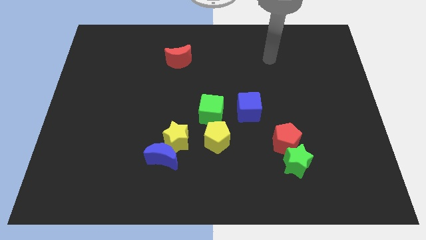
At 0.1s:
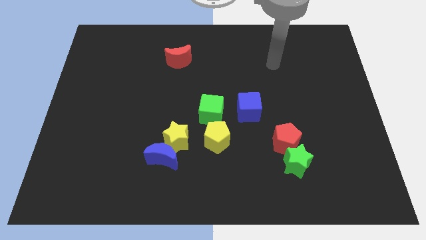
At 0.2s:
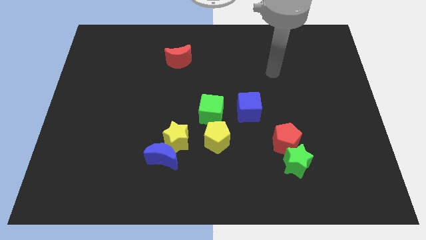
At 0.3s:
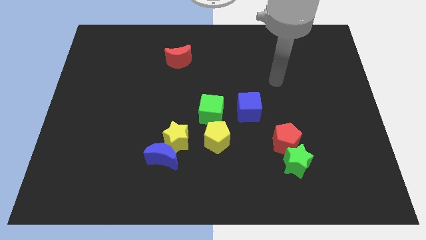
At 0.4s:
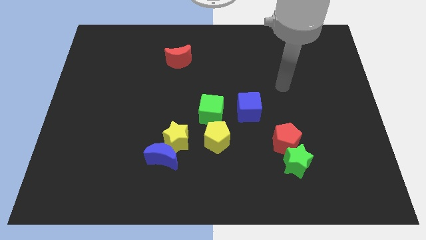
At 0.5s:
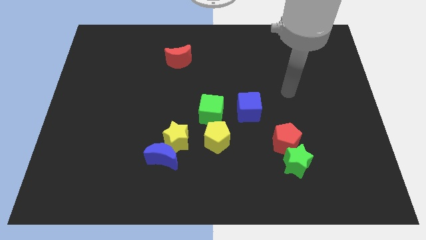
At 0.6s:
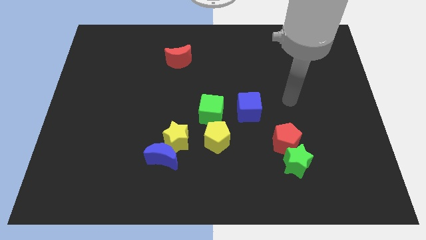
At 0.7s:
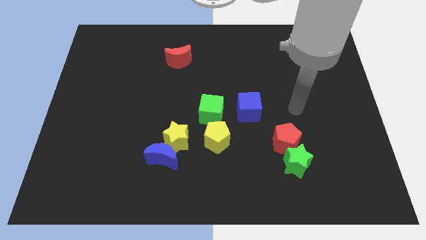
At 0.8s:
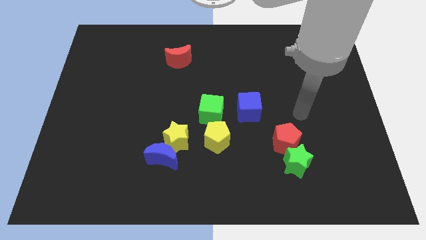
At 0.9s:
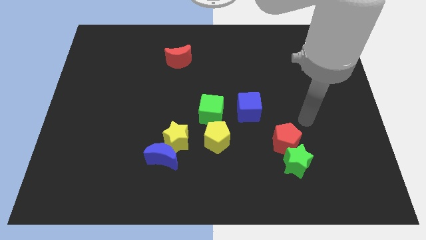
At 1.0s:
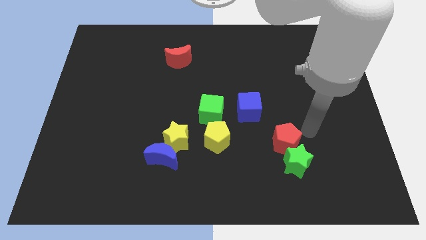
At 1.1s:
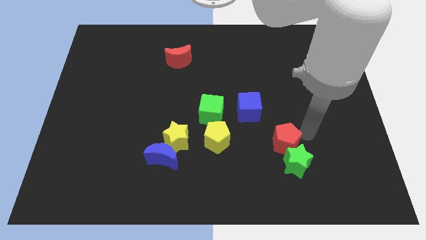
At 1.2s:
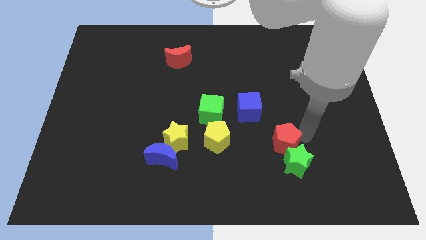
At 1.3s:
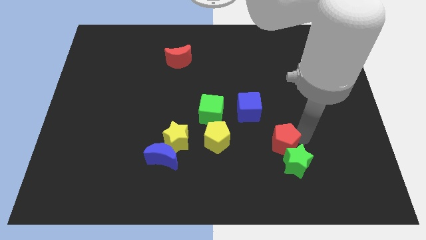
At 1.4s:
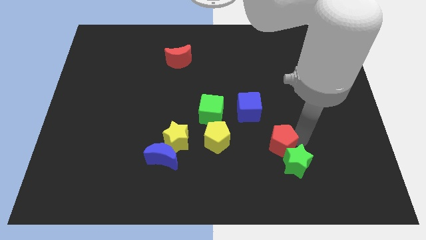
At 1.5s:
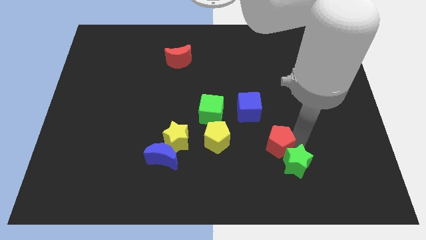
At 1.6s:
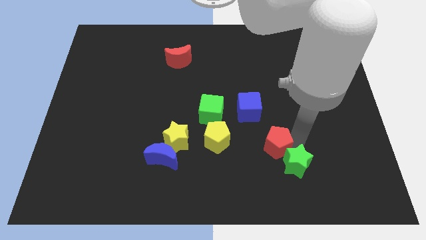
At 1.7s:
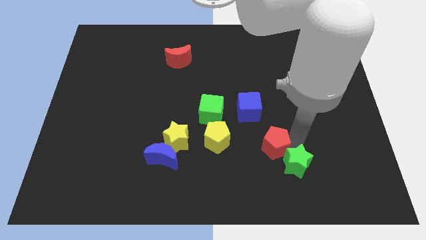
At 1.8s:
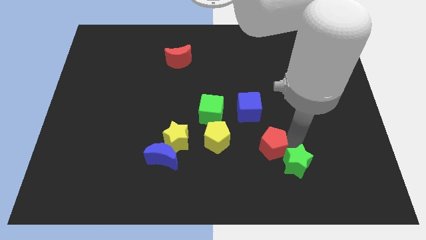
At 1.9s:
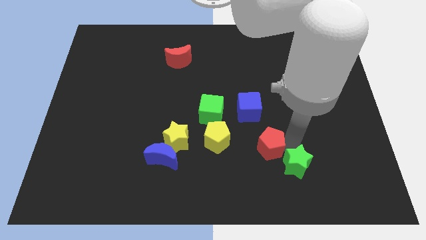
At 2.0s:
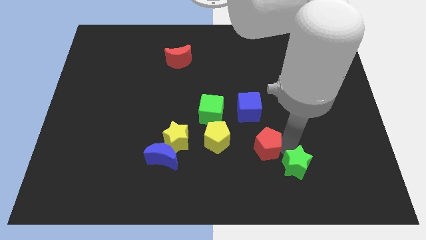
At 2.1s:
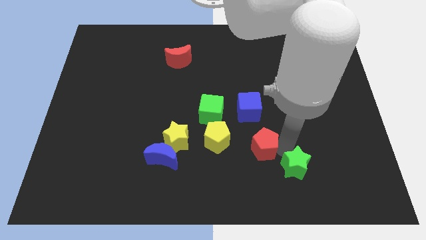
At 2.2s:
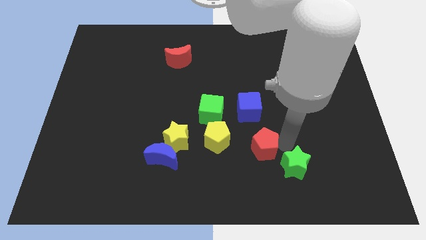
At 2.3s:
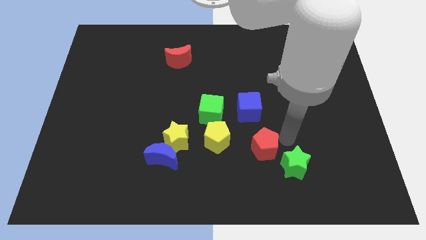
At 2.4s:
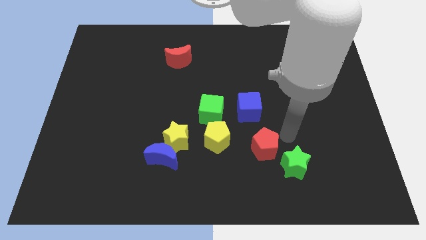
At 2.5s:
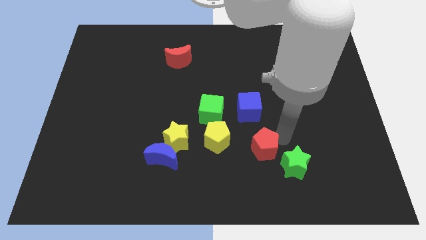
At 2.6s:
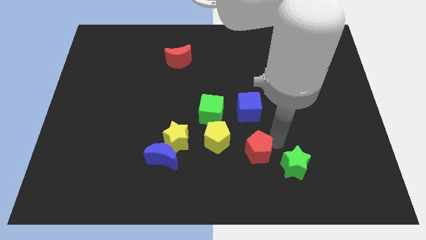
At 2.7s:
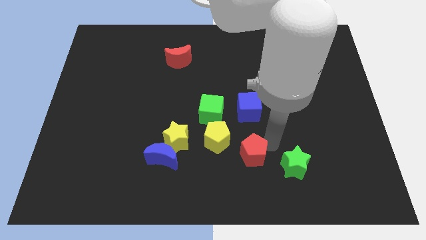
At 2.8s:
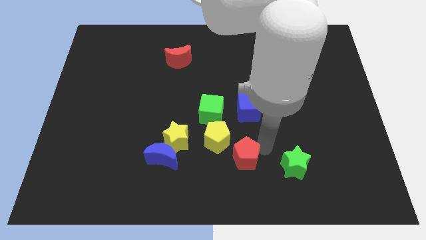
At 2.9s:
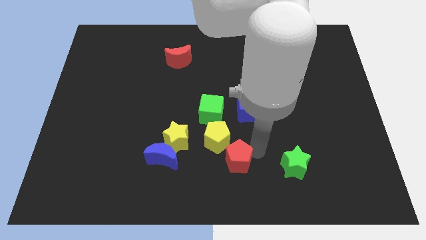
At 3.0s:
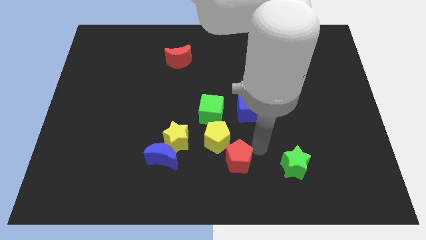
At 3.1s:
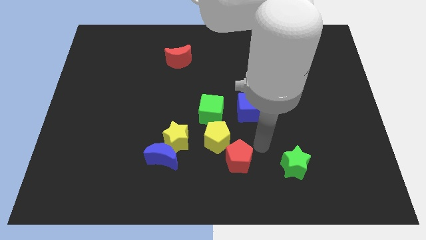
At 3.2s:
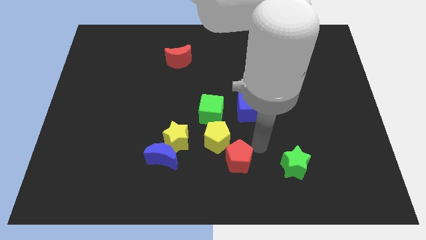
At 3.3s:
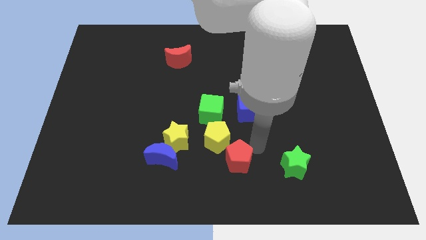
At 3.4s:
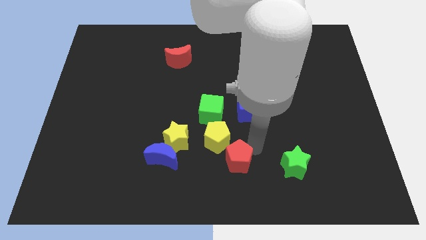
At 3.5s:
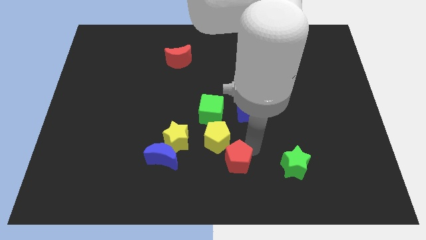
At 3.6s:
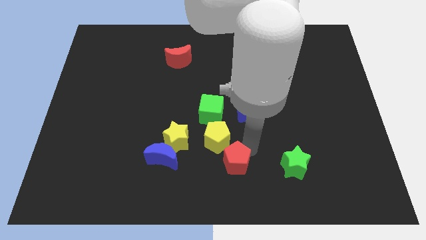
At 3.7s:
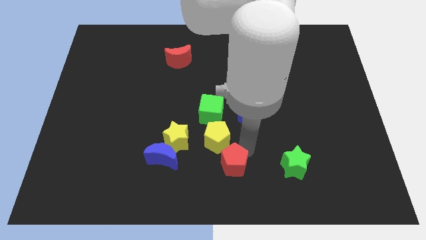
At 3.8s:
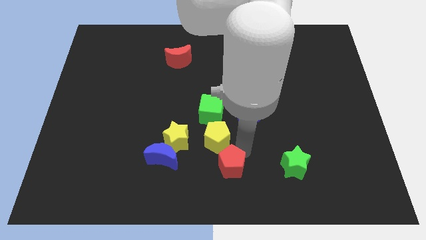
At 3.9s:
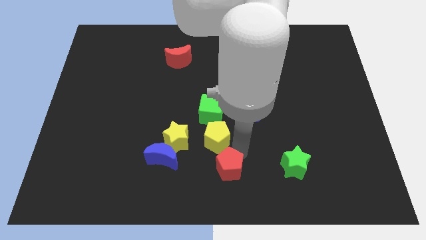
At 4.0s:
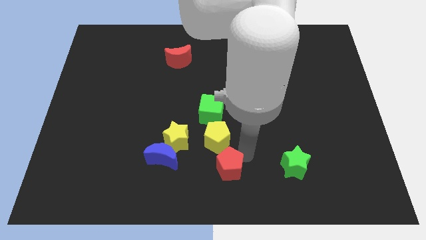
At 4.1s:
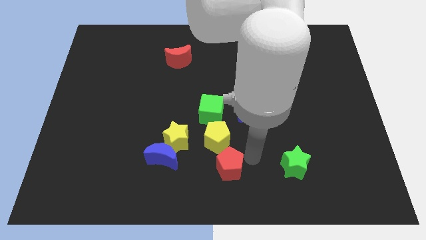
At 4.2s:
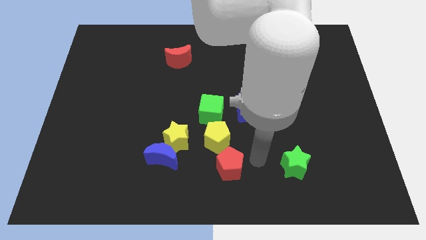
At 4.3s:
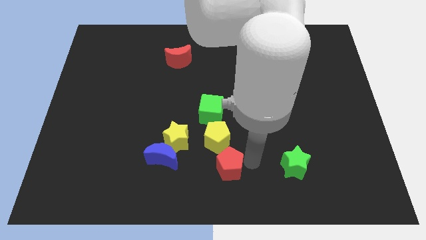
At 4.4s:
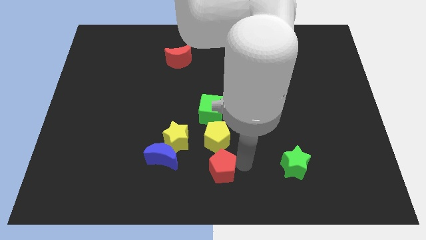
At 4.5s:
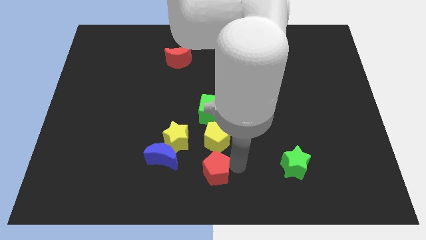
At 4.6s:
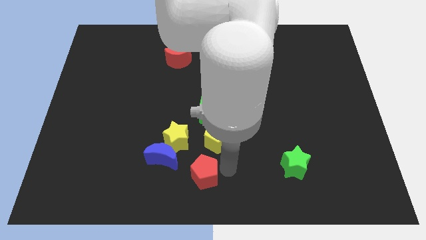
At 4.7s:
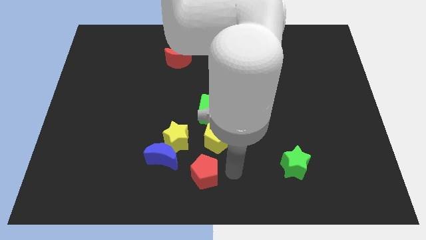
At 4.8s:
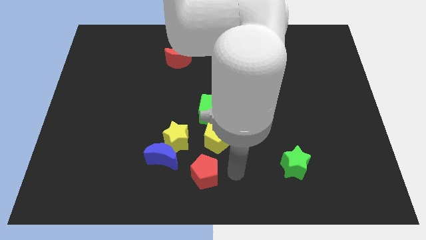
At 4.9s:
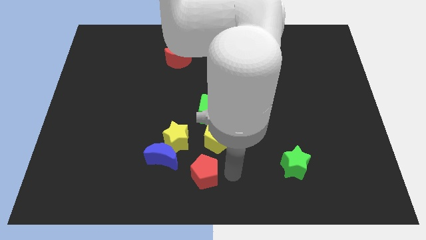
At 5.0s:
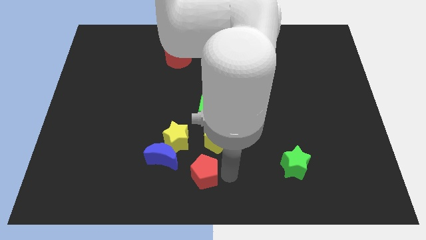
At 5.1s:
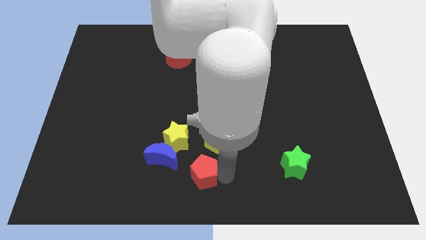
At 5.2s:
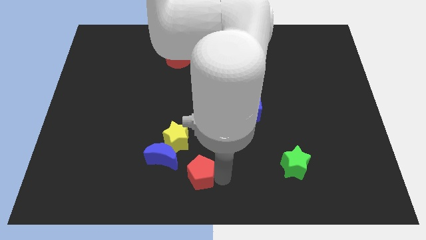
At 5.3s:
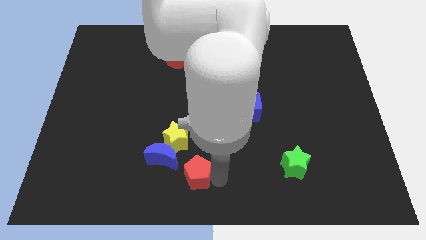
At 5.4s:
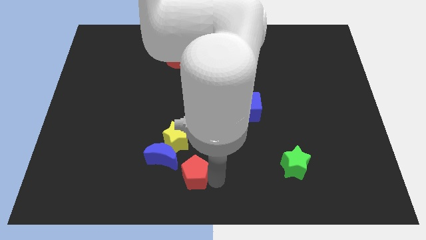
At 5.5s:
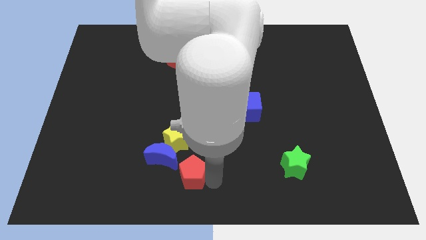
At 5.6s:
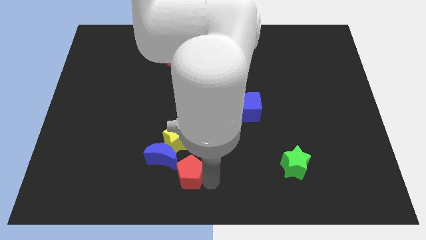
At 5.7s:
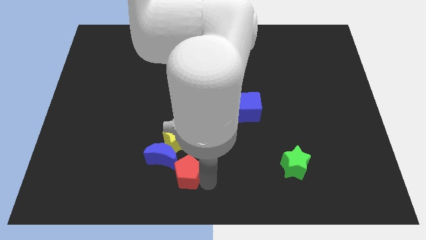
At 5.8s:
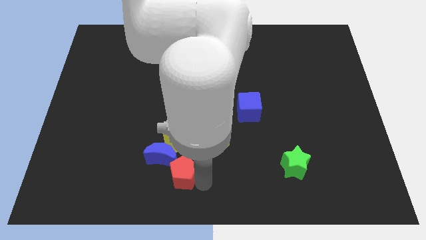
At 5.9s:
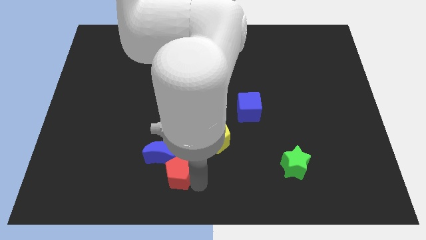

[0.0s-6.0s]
push the red pentagon to the left

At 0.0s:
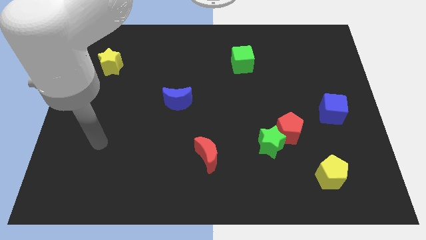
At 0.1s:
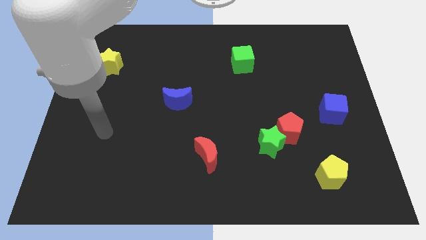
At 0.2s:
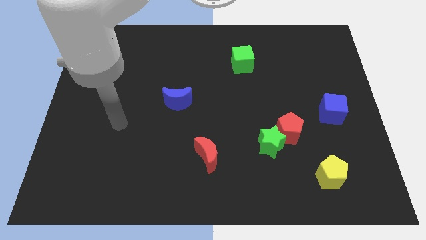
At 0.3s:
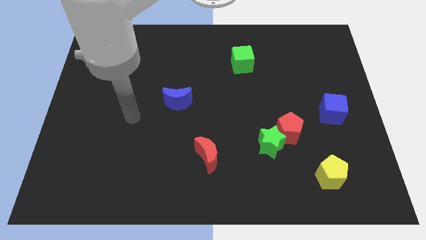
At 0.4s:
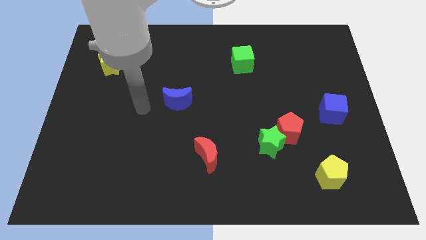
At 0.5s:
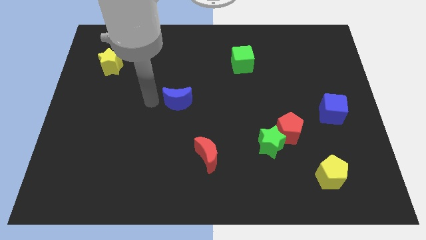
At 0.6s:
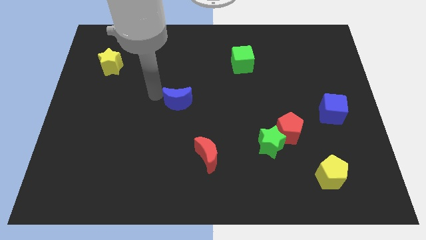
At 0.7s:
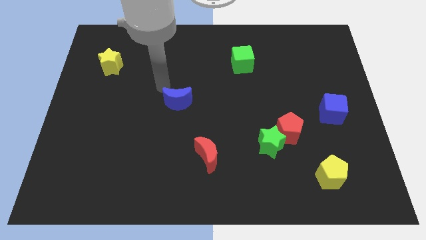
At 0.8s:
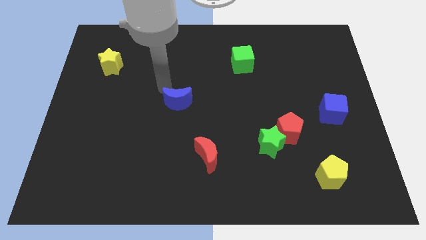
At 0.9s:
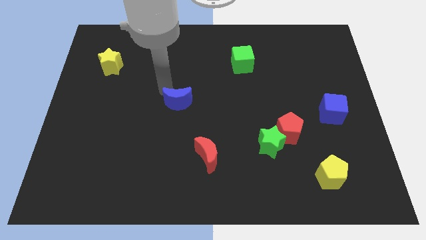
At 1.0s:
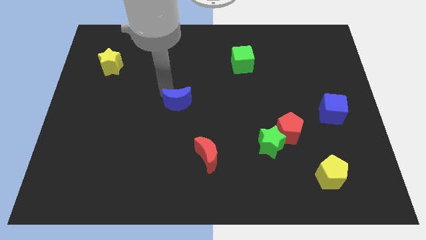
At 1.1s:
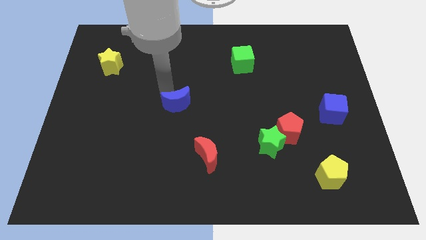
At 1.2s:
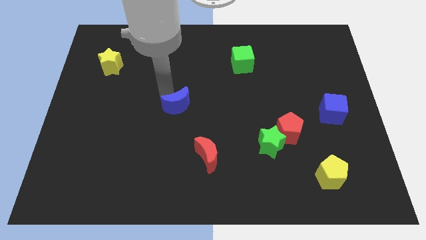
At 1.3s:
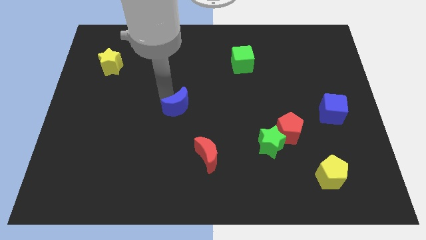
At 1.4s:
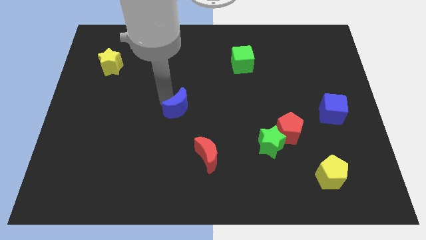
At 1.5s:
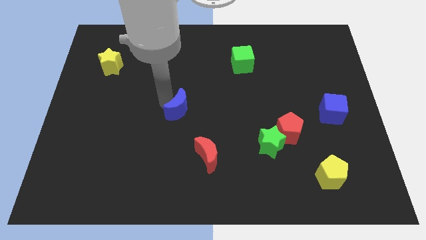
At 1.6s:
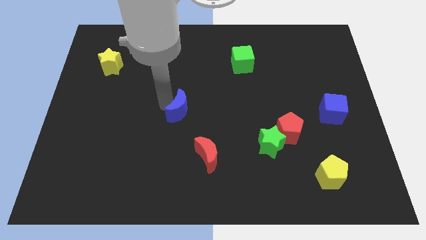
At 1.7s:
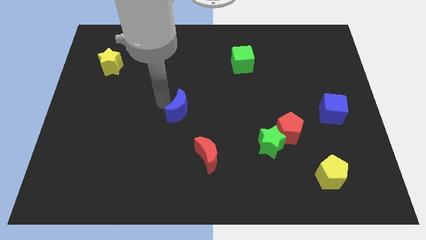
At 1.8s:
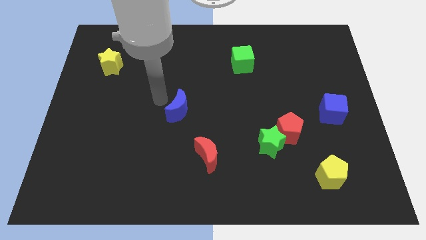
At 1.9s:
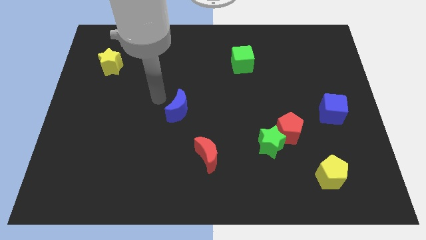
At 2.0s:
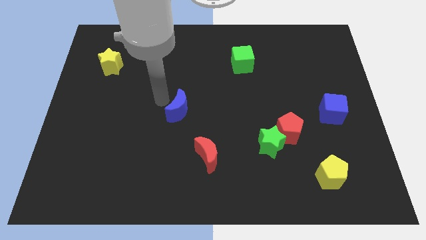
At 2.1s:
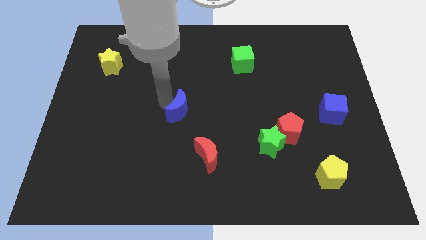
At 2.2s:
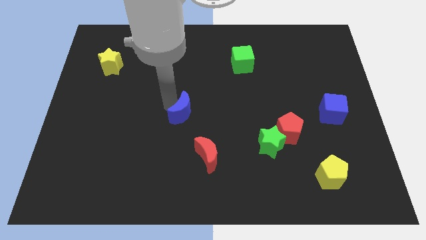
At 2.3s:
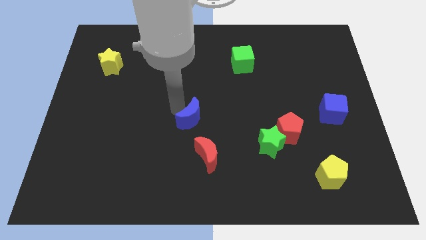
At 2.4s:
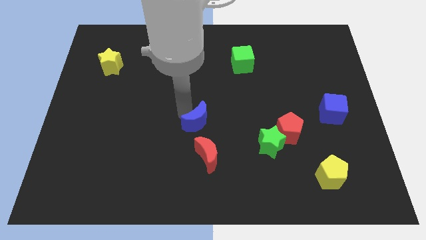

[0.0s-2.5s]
slightly move the blue moon downwards and to the right

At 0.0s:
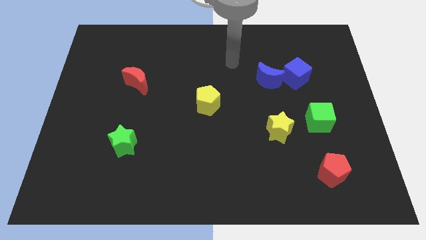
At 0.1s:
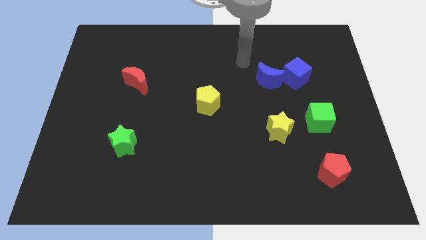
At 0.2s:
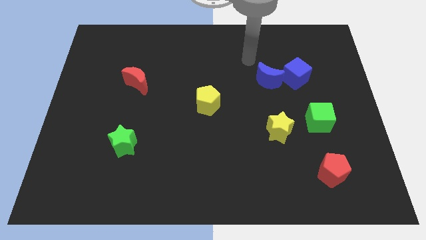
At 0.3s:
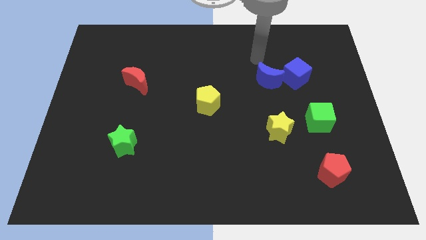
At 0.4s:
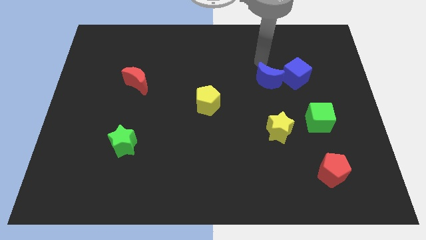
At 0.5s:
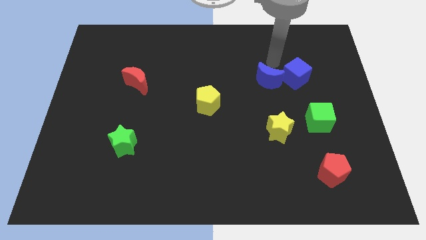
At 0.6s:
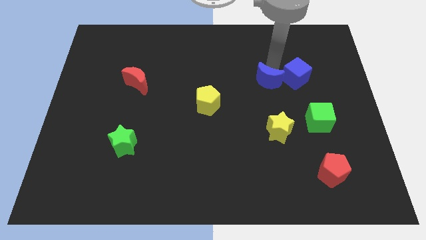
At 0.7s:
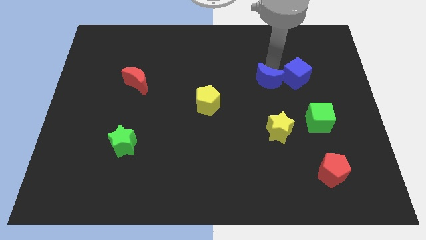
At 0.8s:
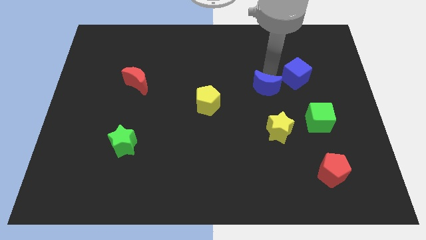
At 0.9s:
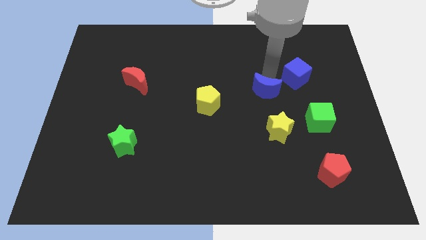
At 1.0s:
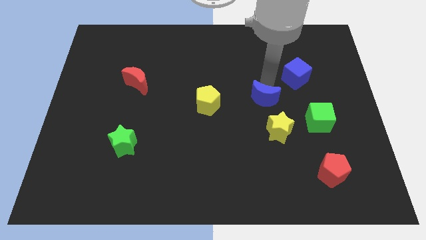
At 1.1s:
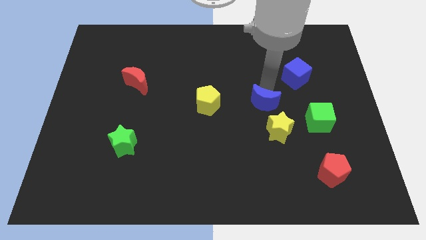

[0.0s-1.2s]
slightly move the blue moon downwards
